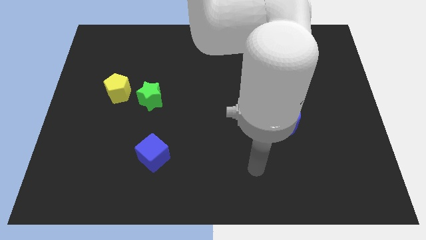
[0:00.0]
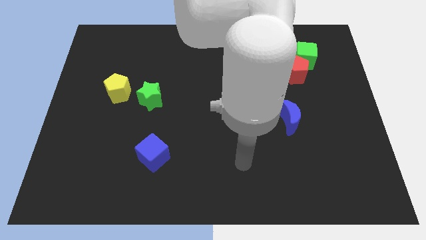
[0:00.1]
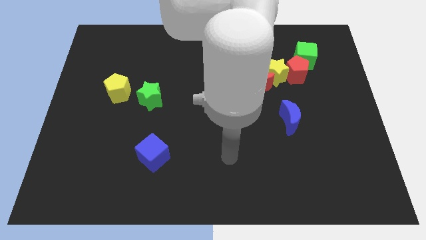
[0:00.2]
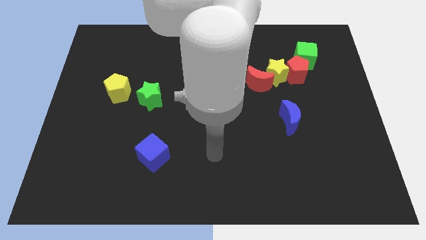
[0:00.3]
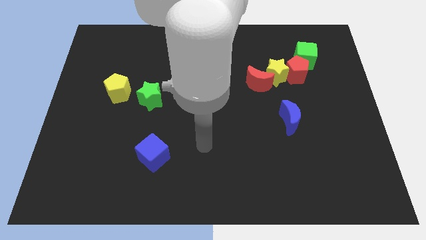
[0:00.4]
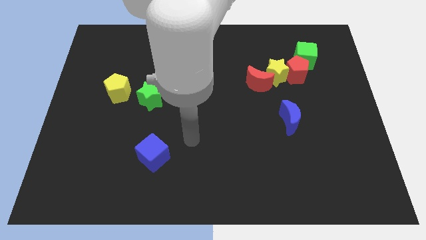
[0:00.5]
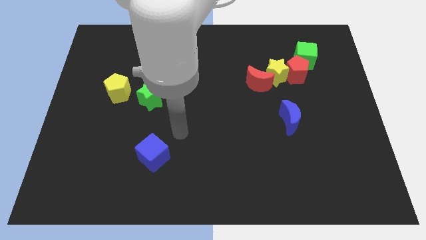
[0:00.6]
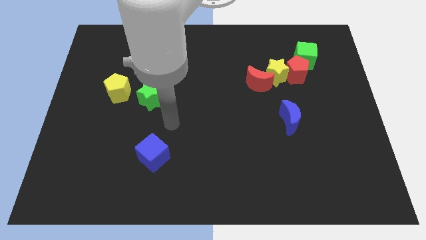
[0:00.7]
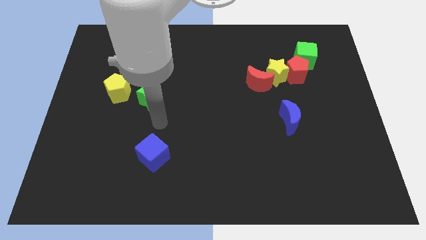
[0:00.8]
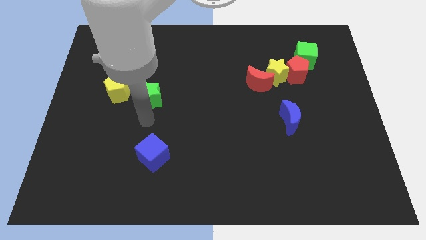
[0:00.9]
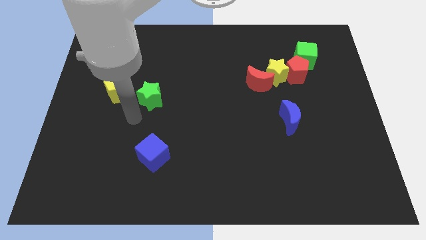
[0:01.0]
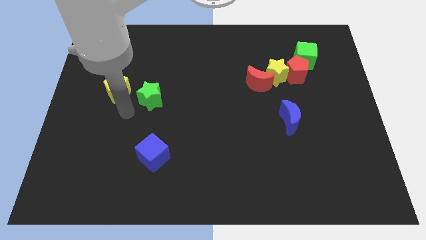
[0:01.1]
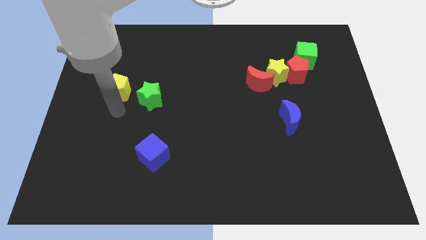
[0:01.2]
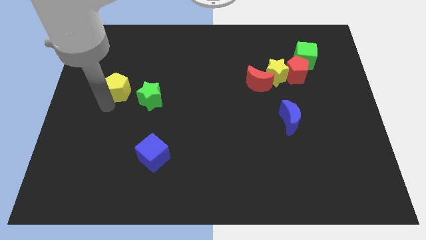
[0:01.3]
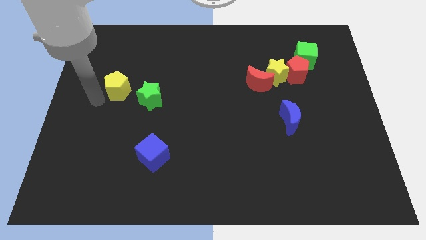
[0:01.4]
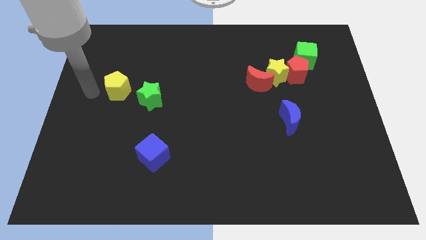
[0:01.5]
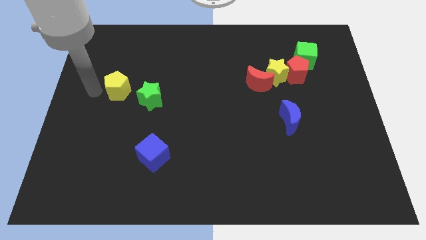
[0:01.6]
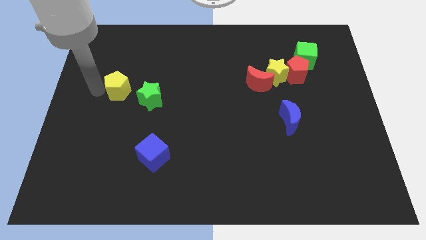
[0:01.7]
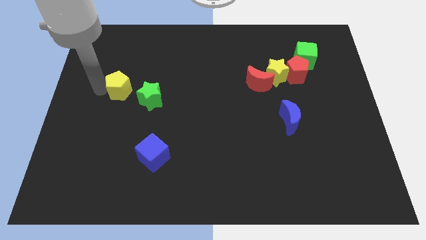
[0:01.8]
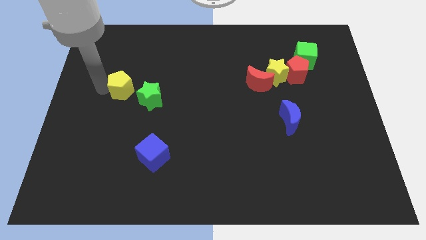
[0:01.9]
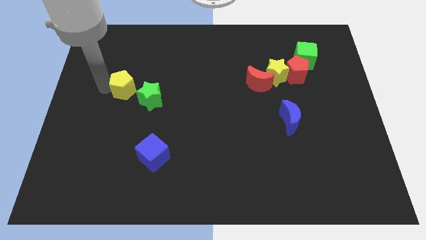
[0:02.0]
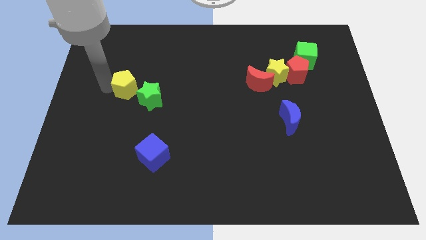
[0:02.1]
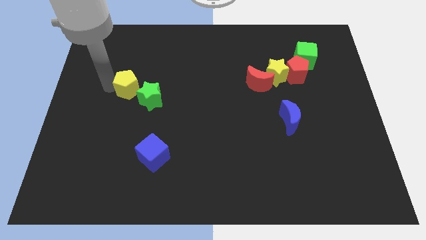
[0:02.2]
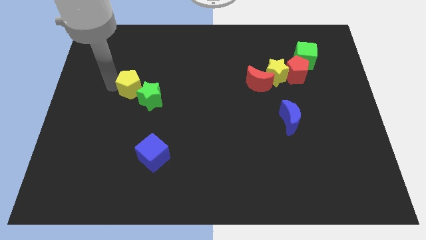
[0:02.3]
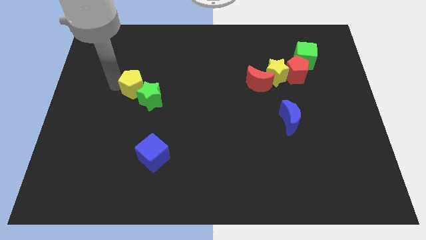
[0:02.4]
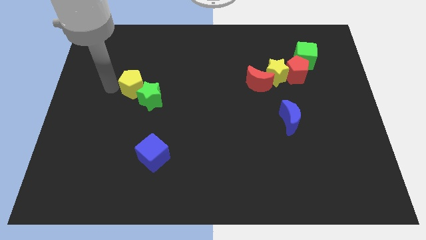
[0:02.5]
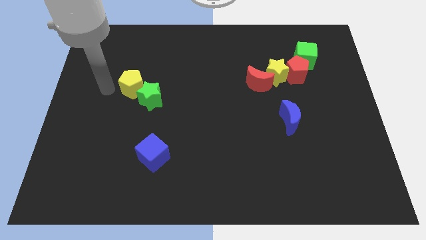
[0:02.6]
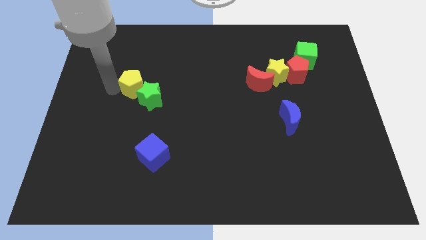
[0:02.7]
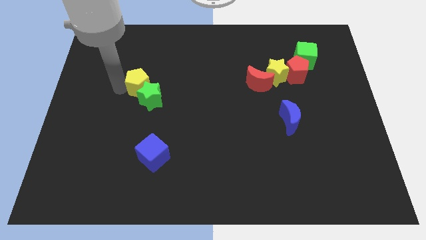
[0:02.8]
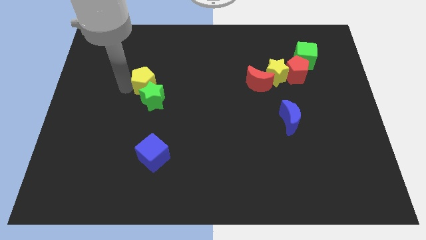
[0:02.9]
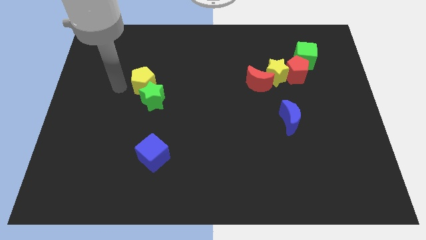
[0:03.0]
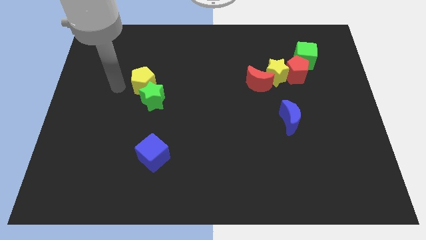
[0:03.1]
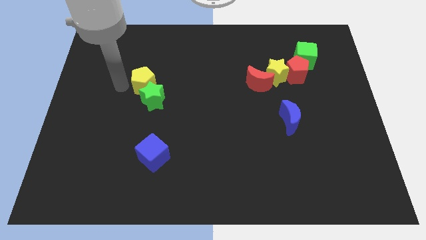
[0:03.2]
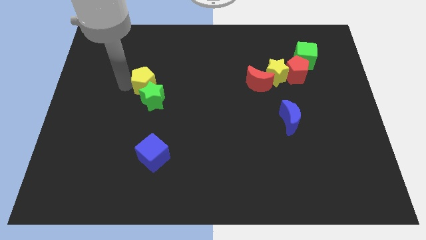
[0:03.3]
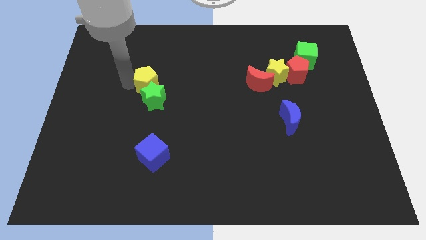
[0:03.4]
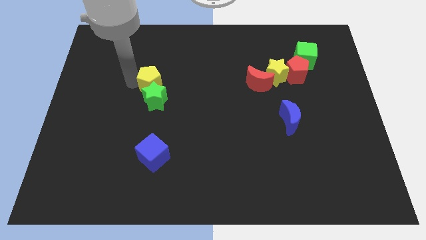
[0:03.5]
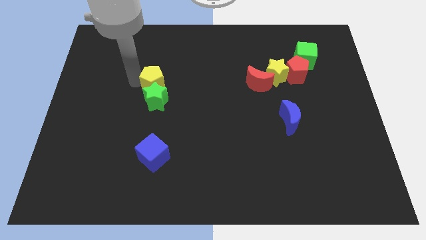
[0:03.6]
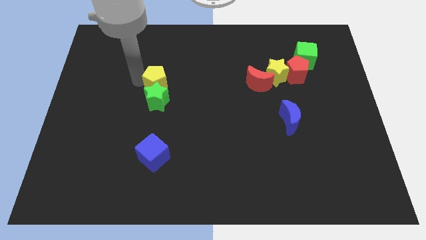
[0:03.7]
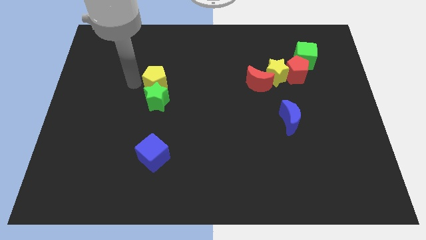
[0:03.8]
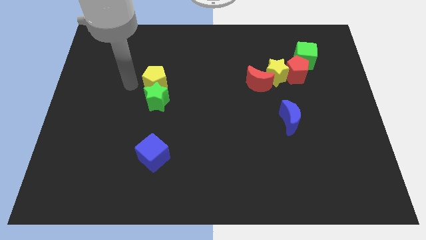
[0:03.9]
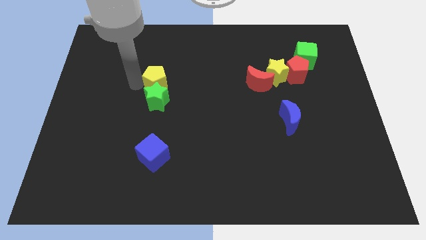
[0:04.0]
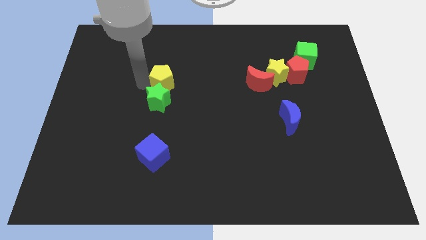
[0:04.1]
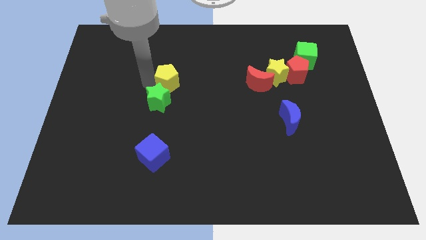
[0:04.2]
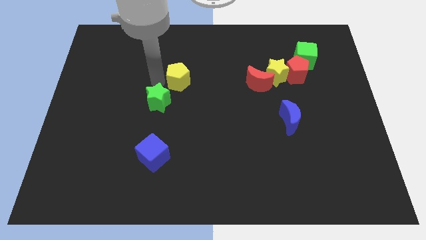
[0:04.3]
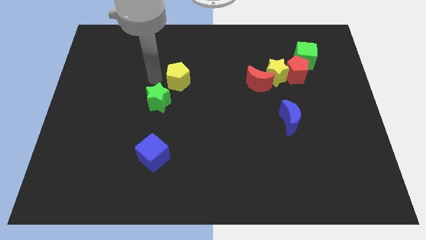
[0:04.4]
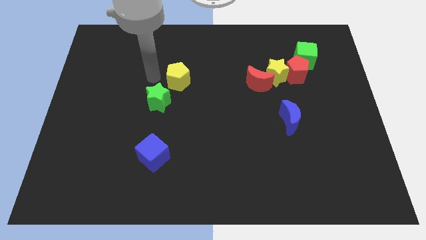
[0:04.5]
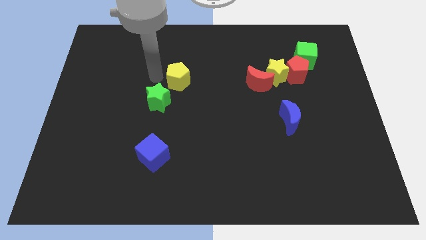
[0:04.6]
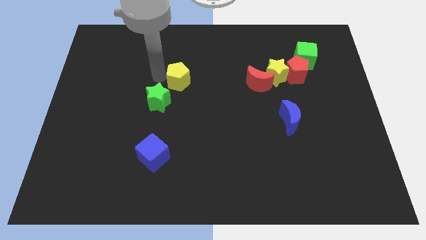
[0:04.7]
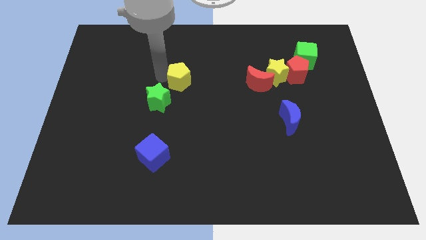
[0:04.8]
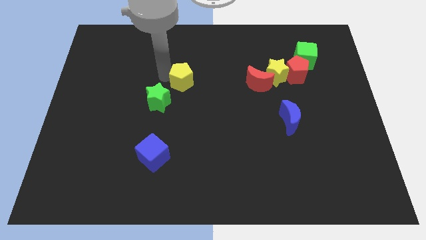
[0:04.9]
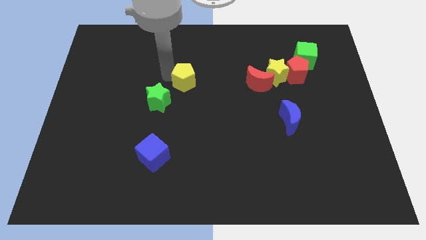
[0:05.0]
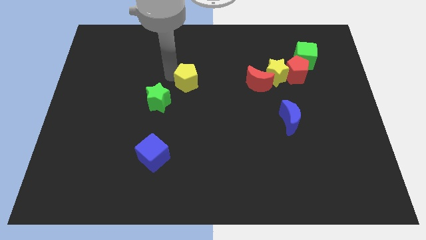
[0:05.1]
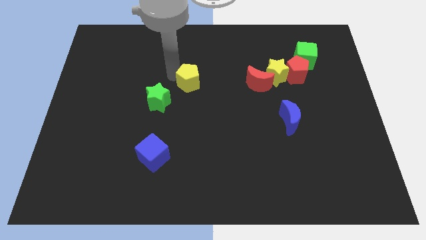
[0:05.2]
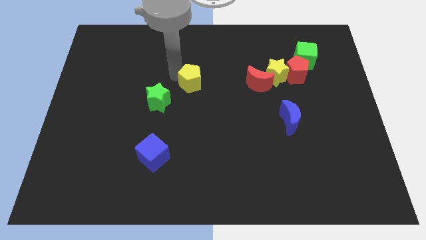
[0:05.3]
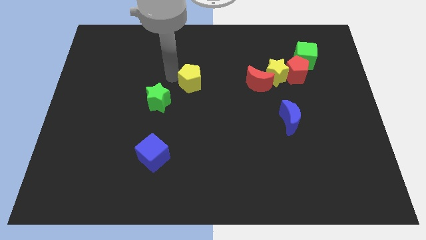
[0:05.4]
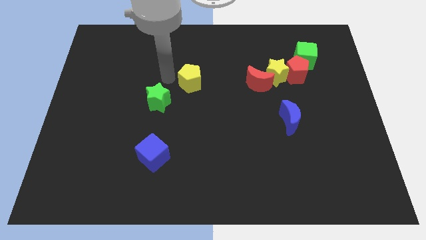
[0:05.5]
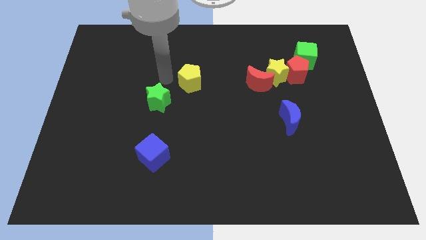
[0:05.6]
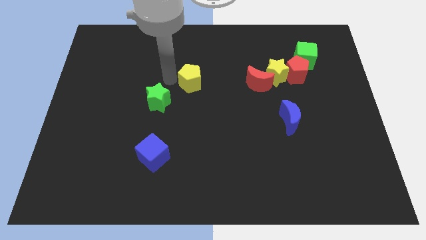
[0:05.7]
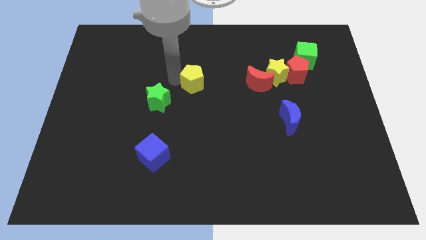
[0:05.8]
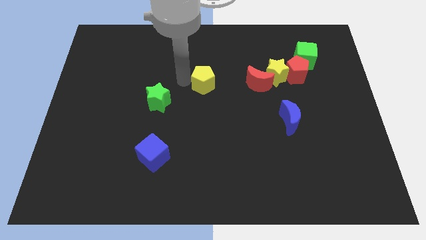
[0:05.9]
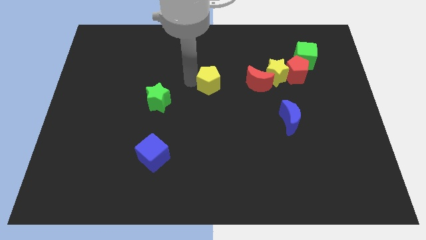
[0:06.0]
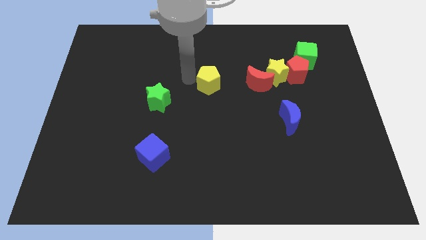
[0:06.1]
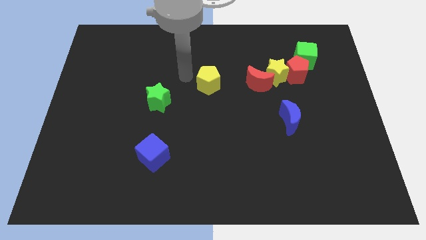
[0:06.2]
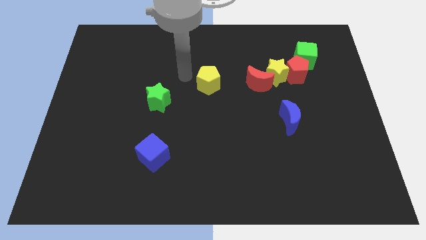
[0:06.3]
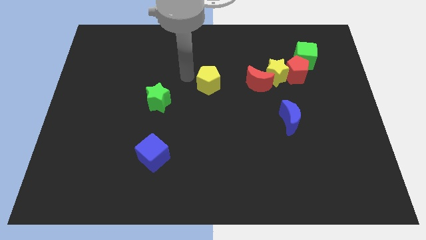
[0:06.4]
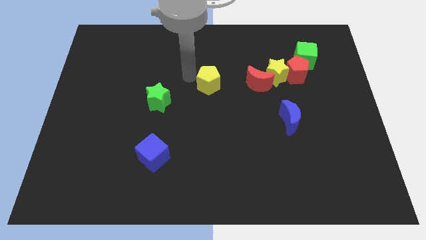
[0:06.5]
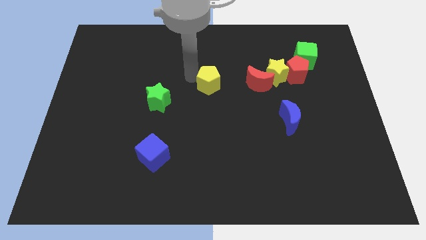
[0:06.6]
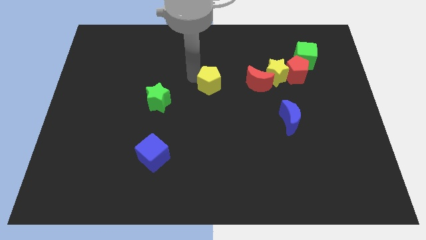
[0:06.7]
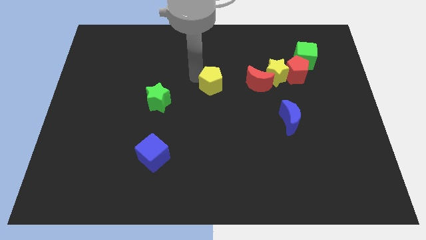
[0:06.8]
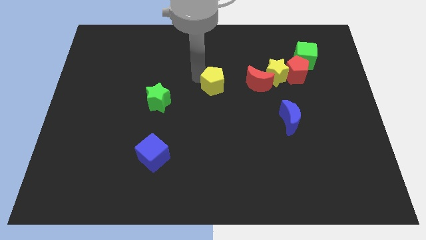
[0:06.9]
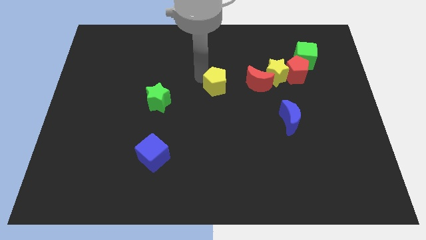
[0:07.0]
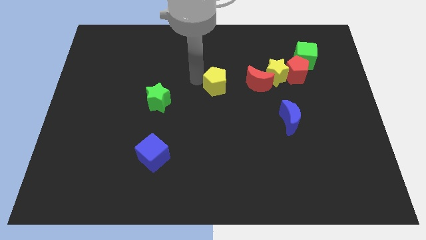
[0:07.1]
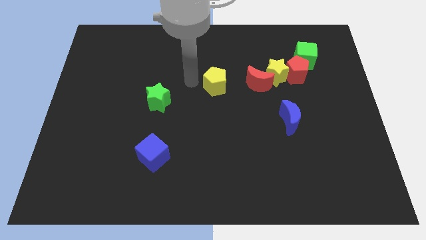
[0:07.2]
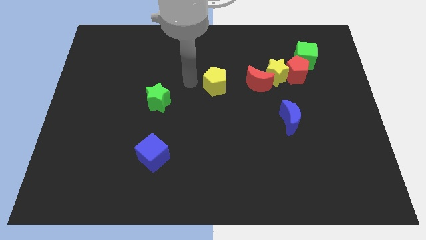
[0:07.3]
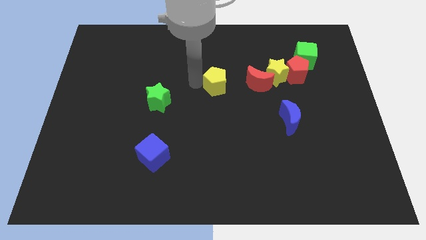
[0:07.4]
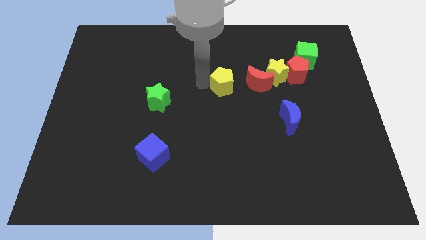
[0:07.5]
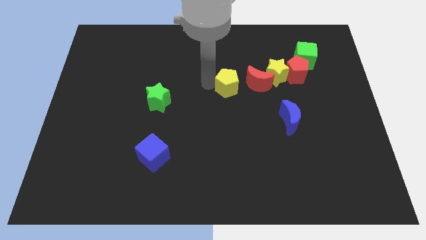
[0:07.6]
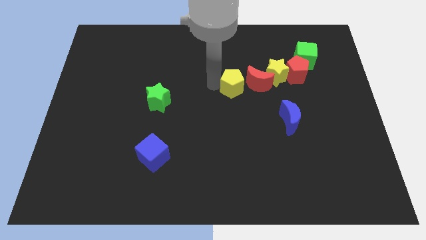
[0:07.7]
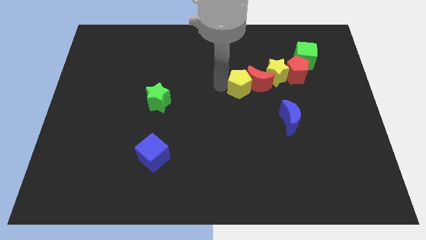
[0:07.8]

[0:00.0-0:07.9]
put the yellow pentagon next to the red moon
